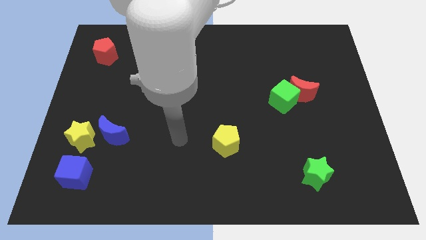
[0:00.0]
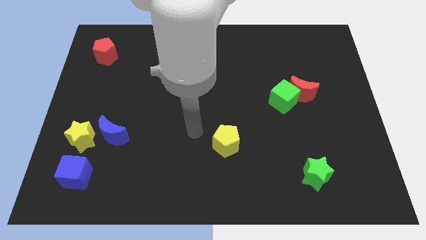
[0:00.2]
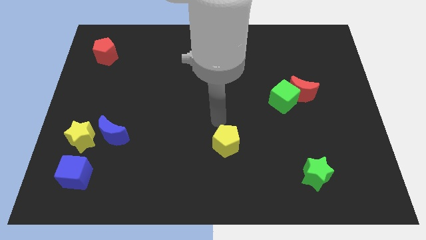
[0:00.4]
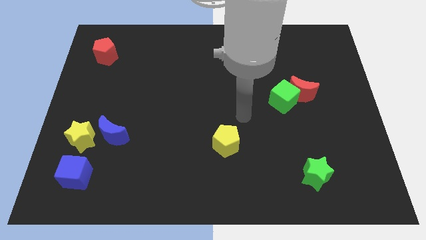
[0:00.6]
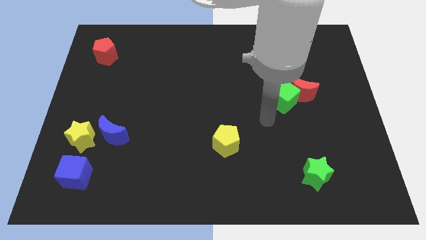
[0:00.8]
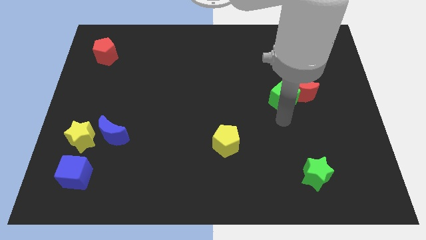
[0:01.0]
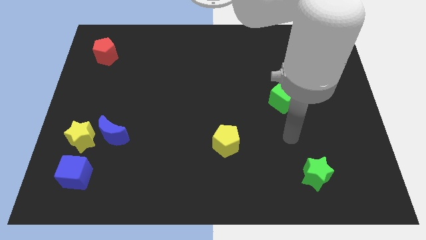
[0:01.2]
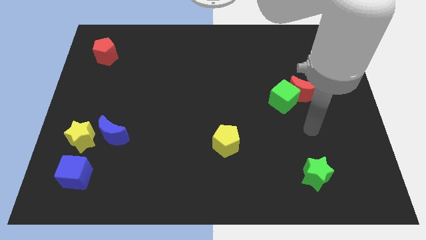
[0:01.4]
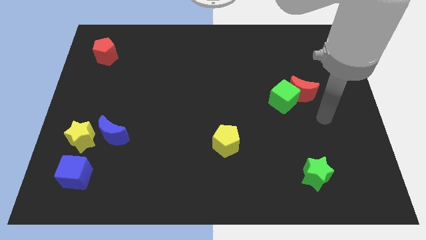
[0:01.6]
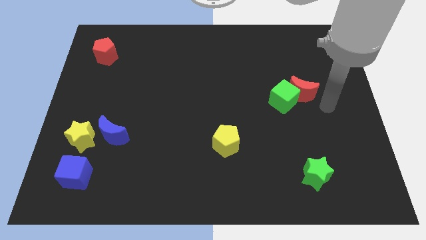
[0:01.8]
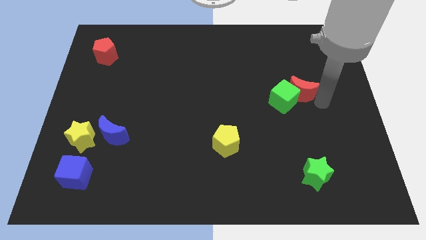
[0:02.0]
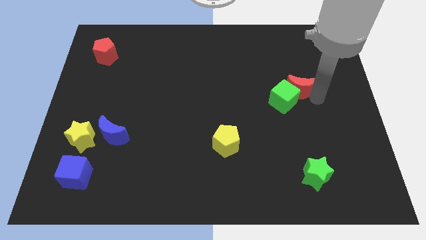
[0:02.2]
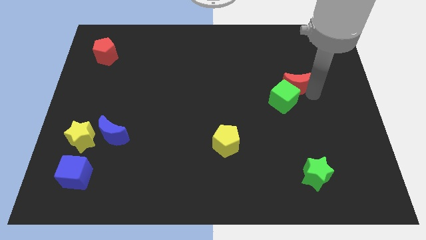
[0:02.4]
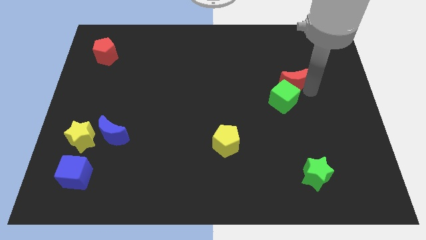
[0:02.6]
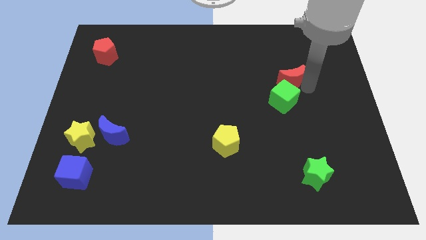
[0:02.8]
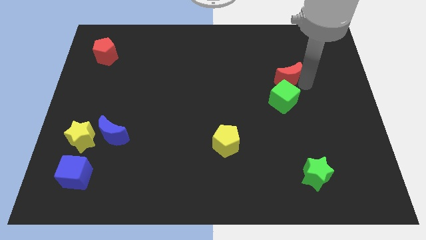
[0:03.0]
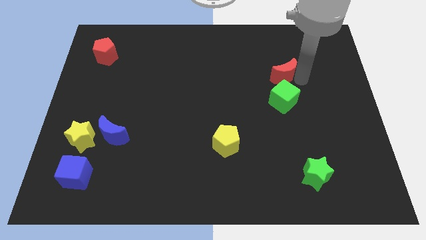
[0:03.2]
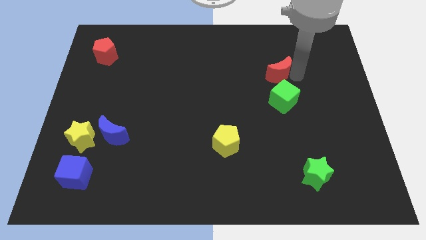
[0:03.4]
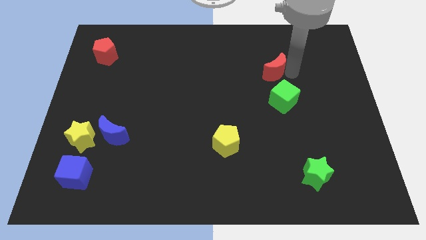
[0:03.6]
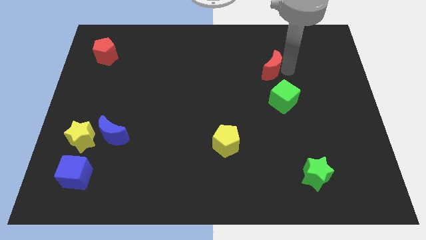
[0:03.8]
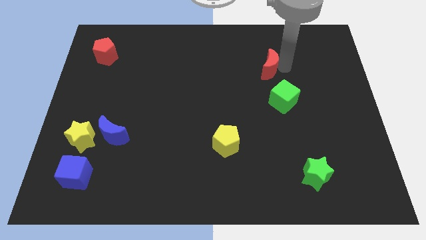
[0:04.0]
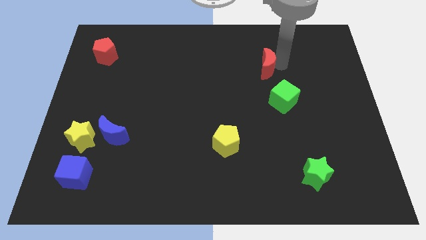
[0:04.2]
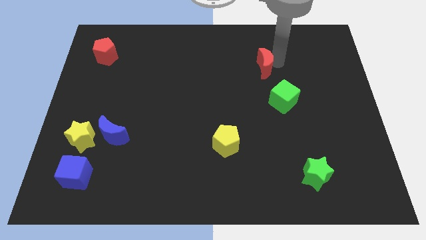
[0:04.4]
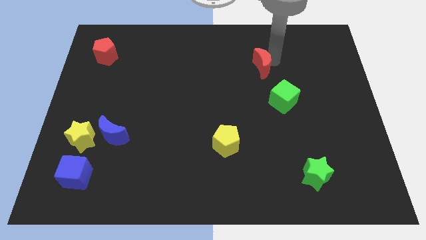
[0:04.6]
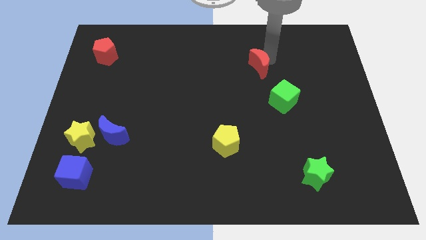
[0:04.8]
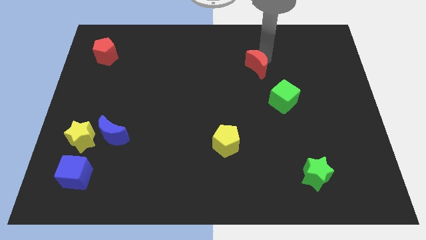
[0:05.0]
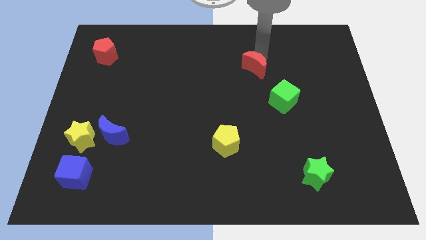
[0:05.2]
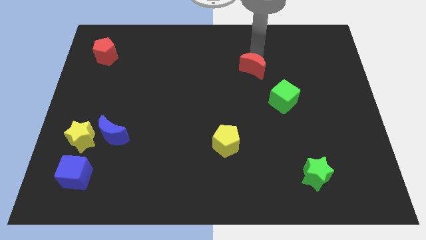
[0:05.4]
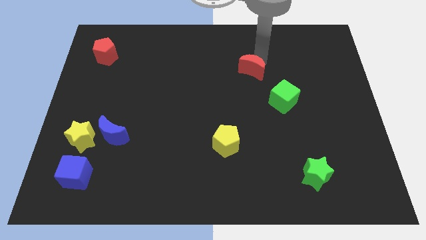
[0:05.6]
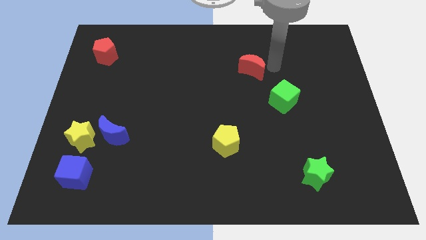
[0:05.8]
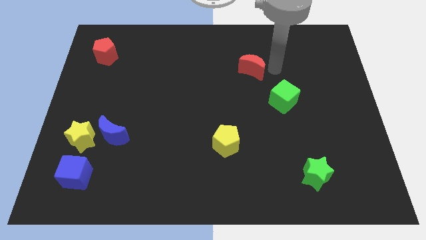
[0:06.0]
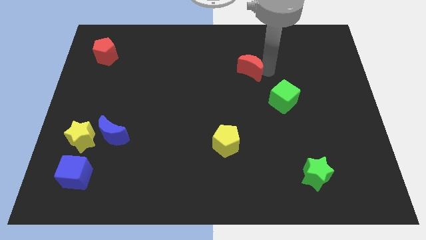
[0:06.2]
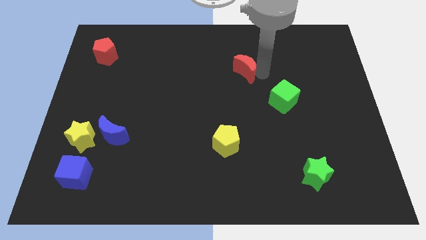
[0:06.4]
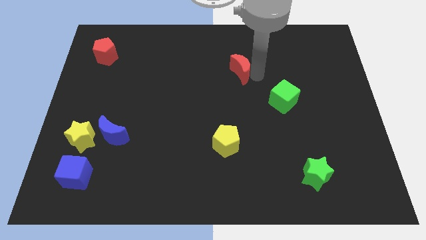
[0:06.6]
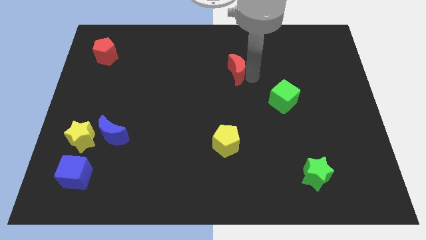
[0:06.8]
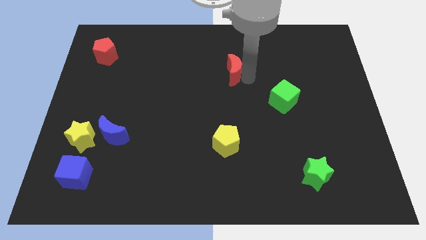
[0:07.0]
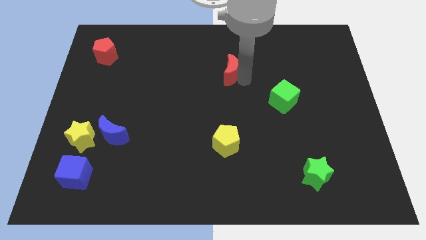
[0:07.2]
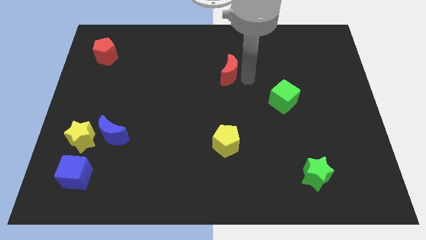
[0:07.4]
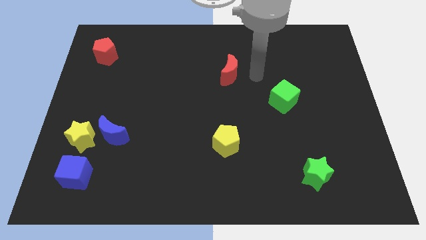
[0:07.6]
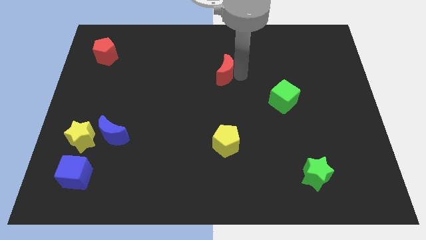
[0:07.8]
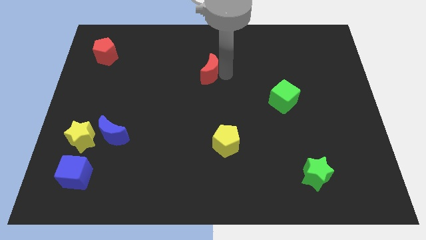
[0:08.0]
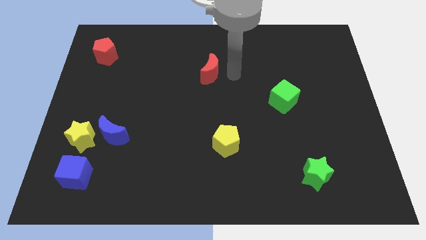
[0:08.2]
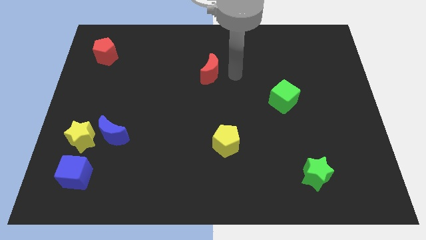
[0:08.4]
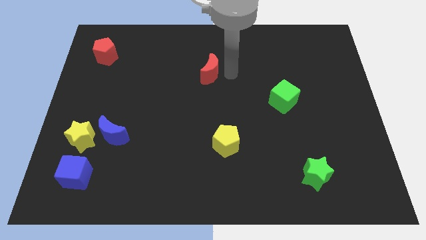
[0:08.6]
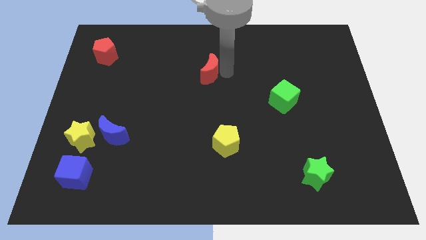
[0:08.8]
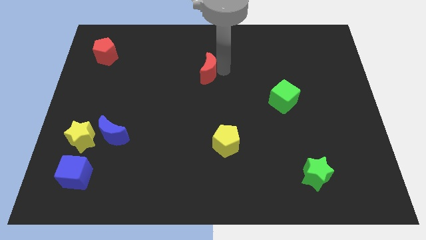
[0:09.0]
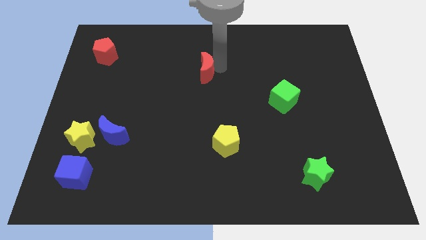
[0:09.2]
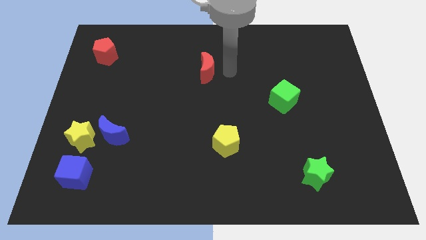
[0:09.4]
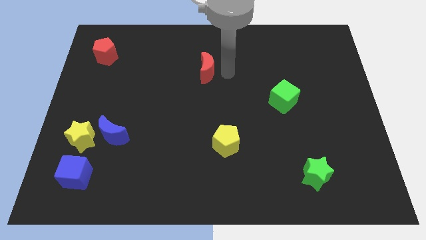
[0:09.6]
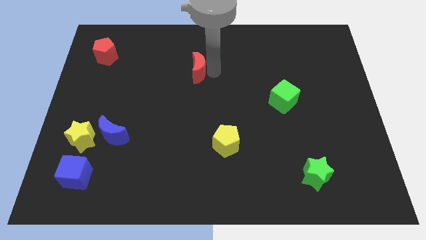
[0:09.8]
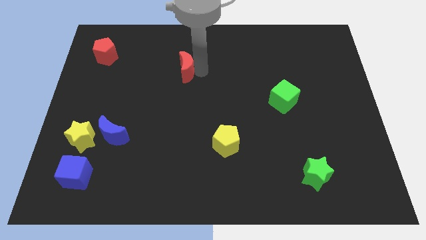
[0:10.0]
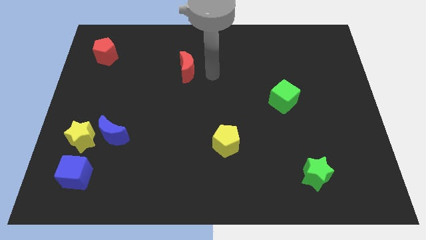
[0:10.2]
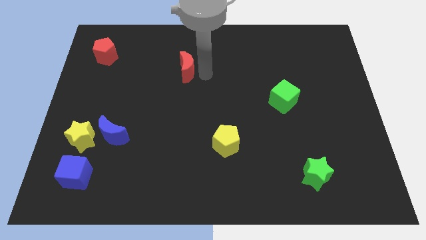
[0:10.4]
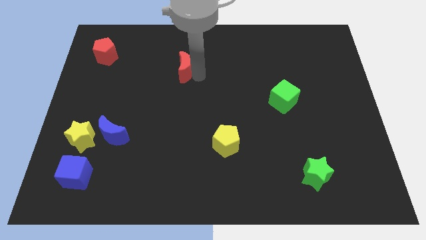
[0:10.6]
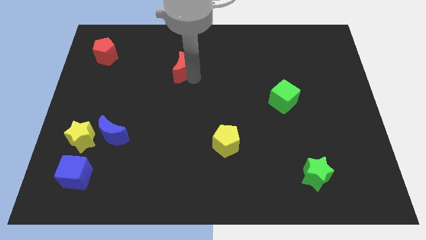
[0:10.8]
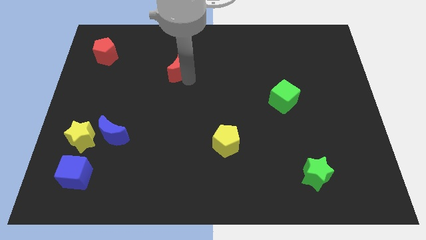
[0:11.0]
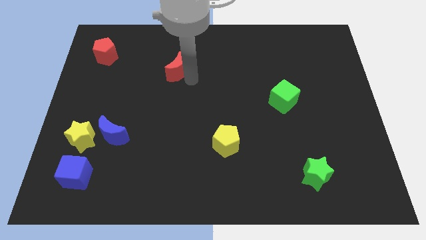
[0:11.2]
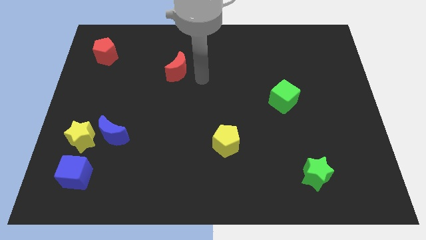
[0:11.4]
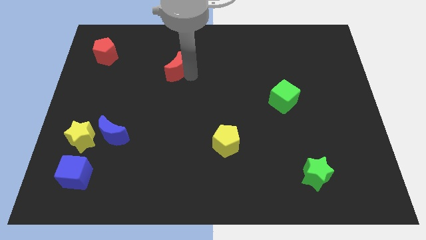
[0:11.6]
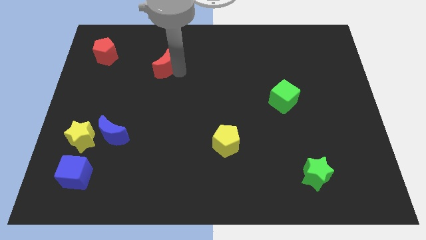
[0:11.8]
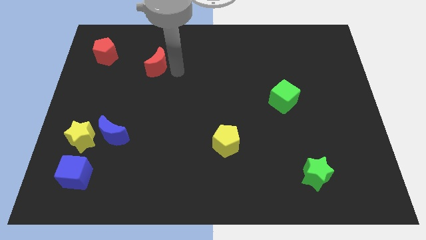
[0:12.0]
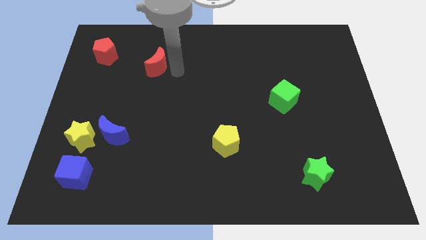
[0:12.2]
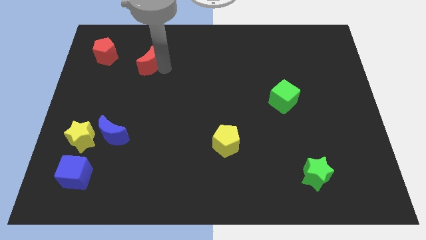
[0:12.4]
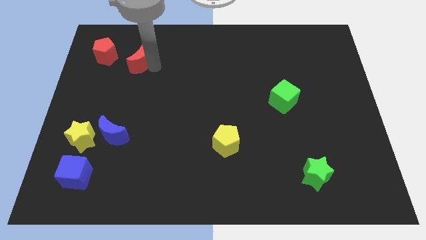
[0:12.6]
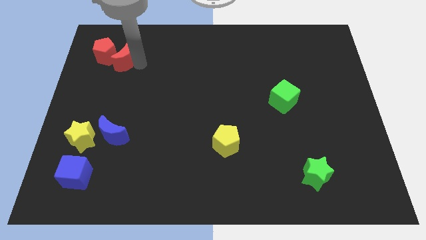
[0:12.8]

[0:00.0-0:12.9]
push the red moon close to the red pentagon
